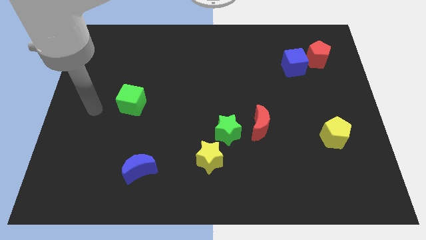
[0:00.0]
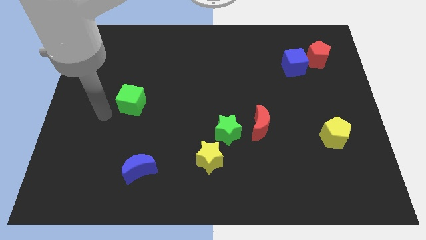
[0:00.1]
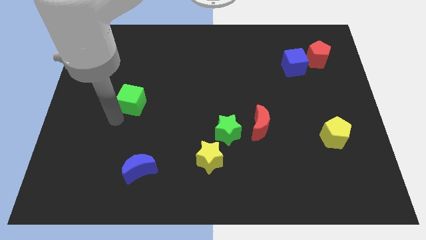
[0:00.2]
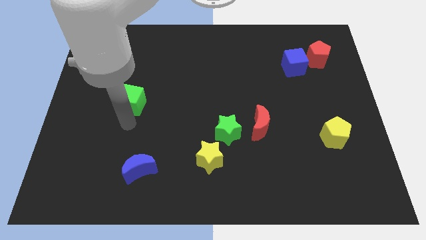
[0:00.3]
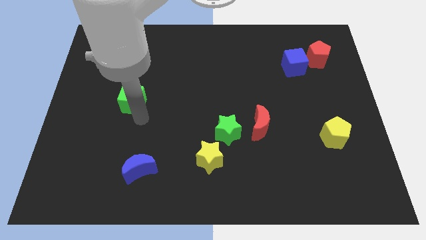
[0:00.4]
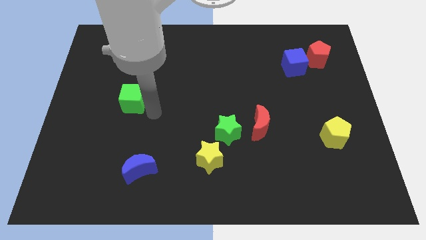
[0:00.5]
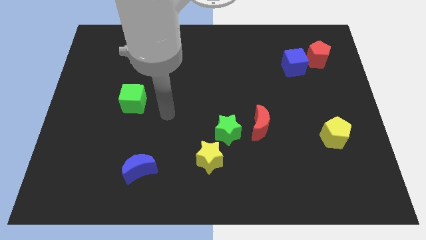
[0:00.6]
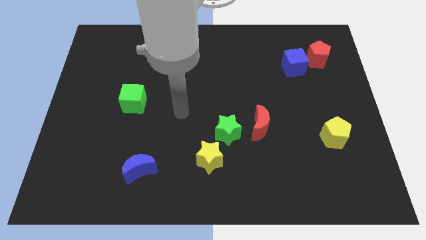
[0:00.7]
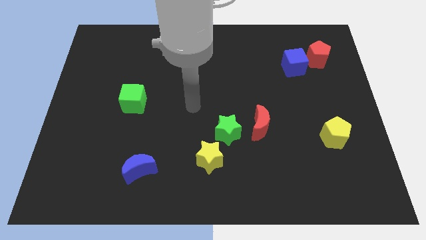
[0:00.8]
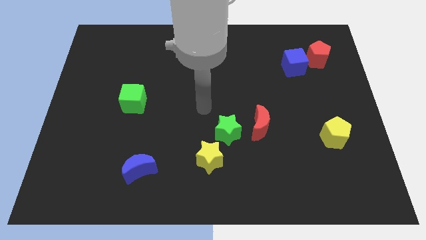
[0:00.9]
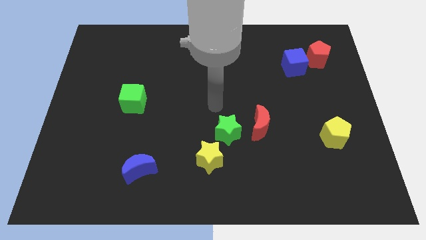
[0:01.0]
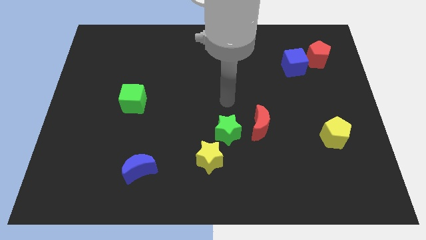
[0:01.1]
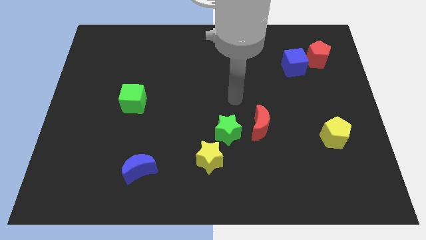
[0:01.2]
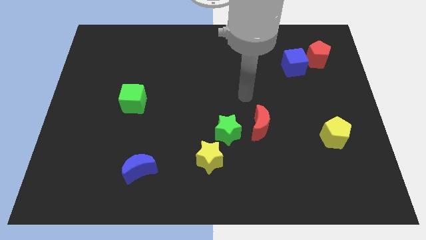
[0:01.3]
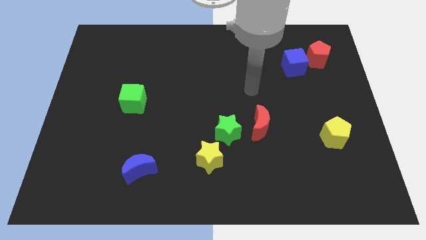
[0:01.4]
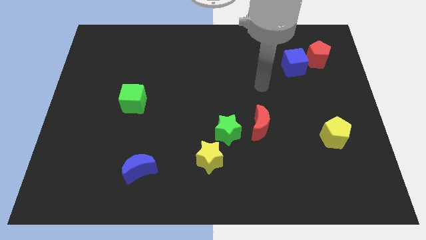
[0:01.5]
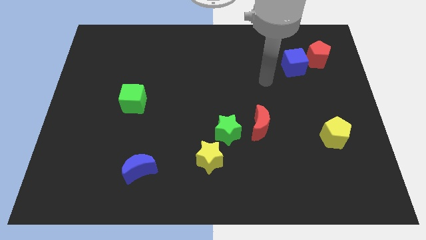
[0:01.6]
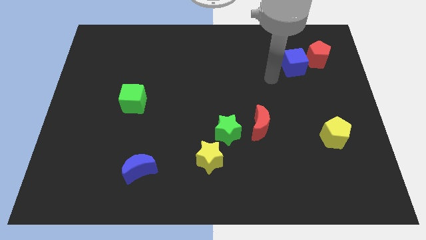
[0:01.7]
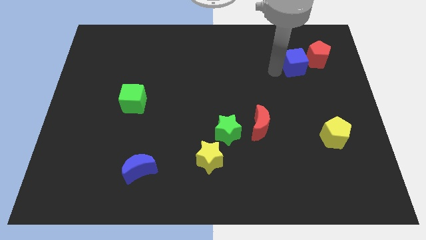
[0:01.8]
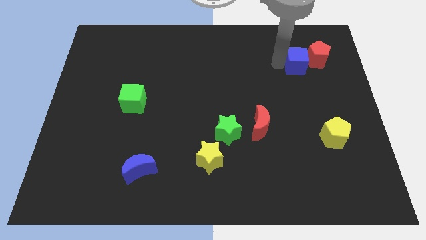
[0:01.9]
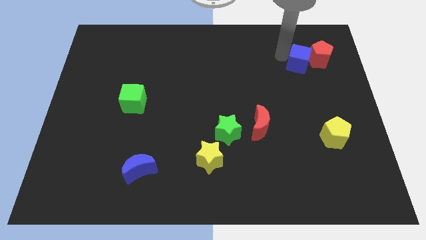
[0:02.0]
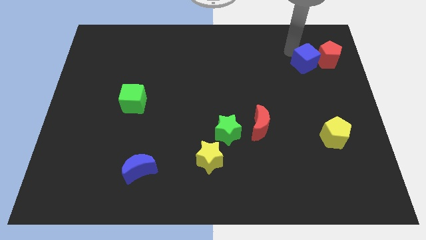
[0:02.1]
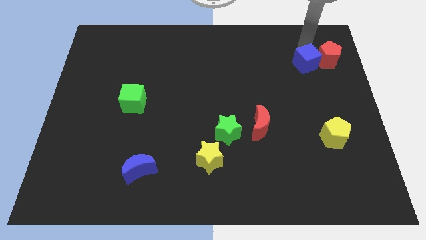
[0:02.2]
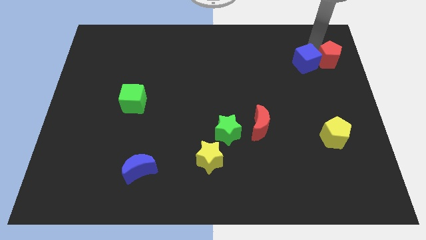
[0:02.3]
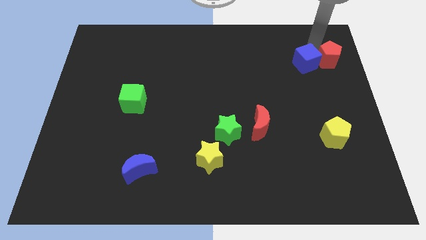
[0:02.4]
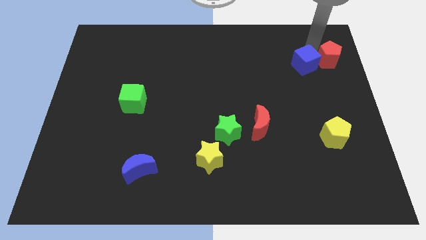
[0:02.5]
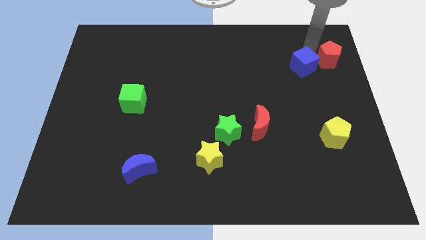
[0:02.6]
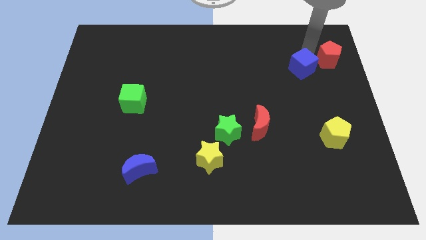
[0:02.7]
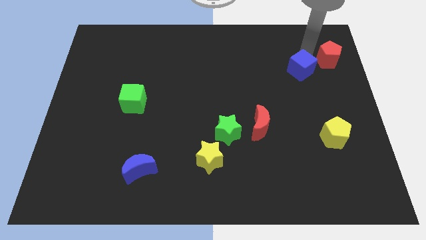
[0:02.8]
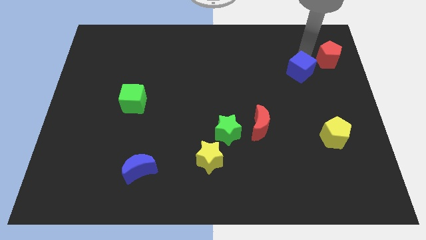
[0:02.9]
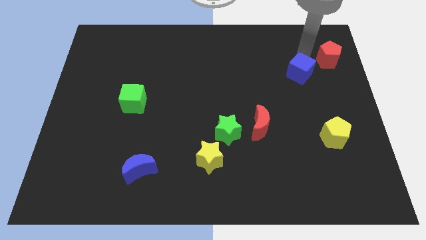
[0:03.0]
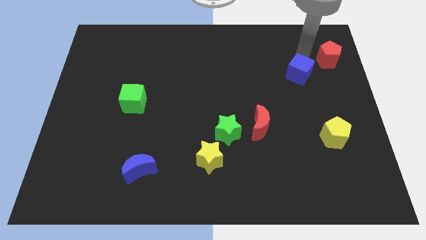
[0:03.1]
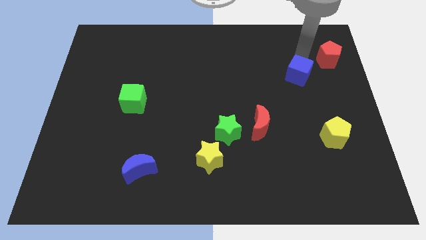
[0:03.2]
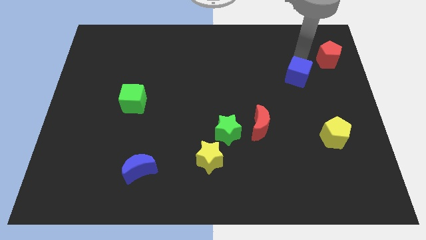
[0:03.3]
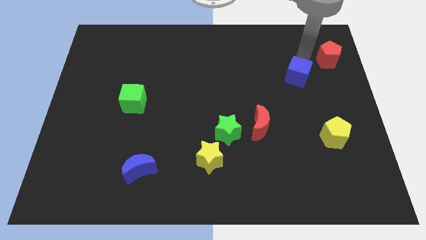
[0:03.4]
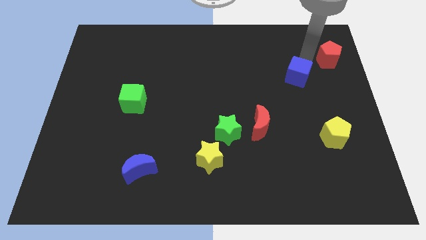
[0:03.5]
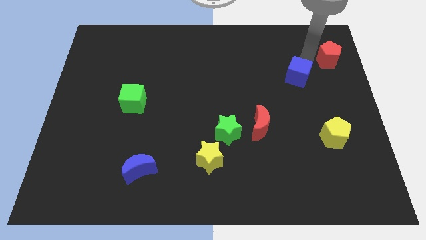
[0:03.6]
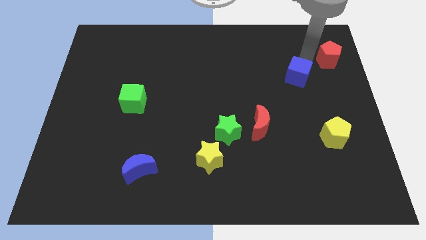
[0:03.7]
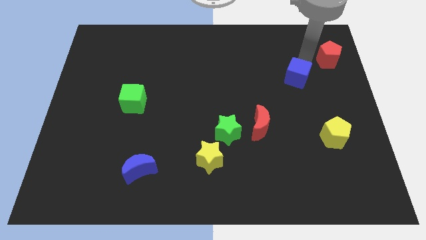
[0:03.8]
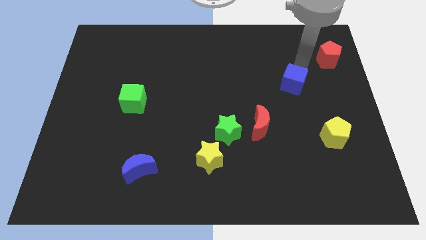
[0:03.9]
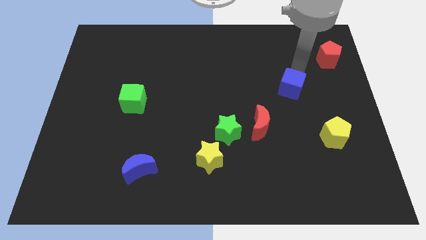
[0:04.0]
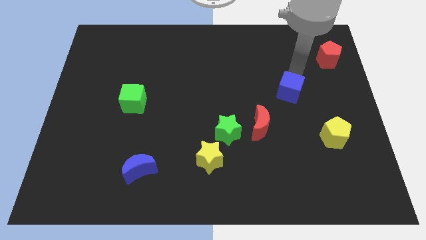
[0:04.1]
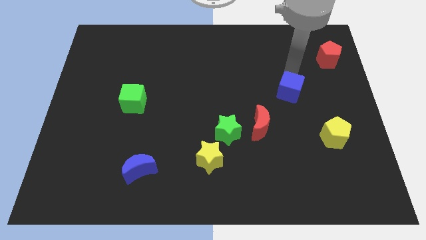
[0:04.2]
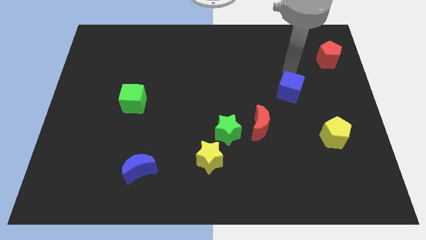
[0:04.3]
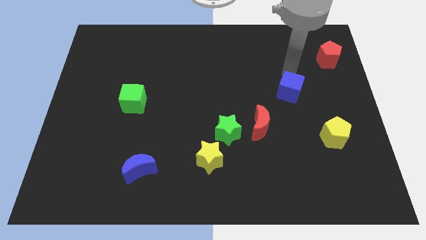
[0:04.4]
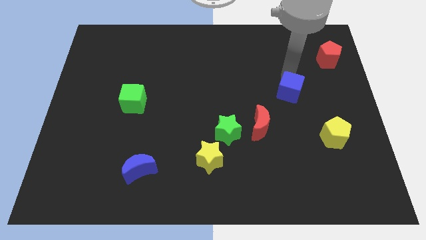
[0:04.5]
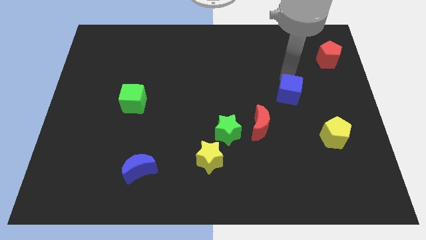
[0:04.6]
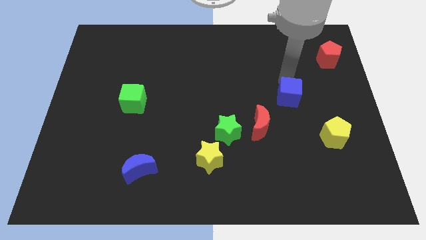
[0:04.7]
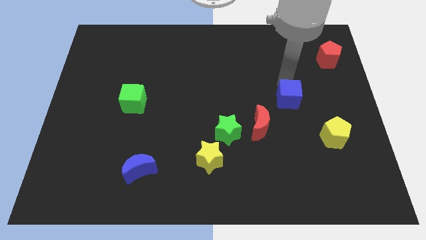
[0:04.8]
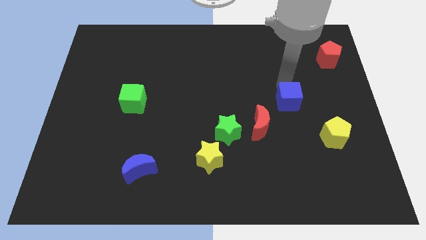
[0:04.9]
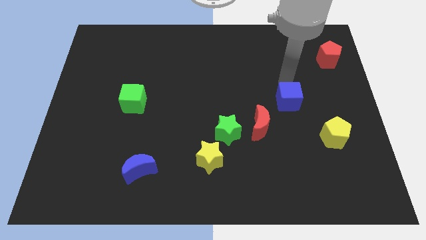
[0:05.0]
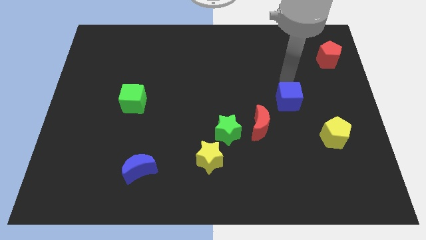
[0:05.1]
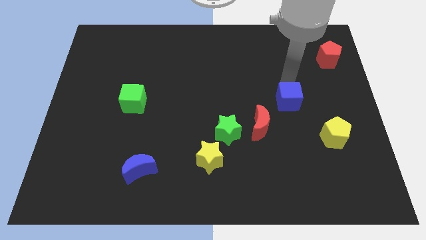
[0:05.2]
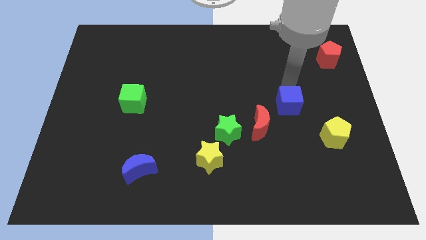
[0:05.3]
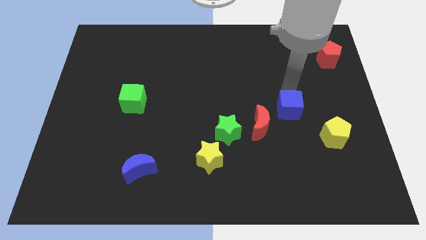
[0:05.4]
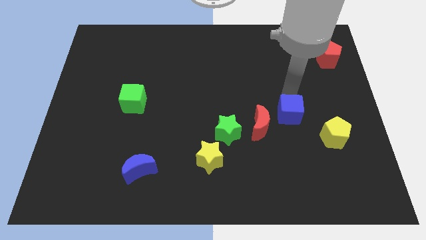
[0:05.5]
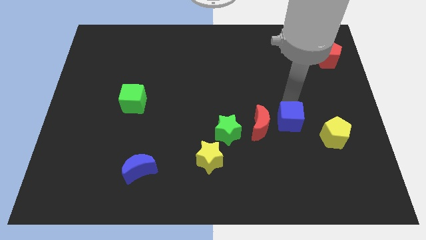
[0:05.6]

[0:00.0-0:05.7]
put the blue cube to the left of the yellow pentagon

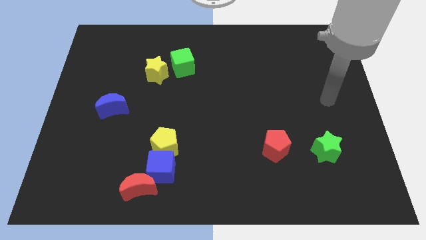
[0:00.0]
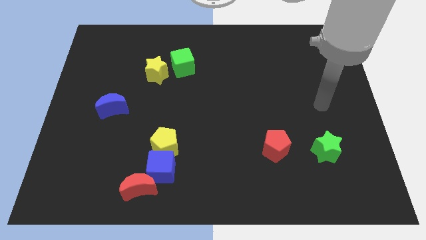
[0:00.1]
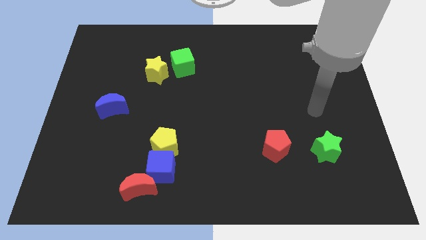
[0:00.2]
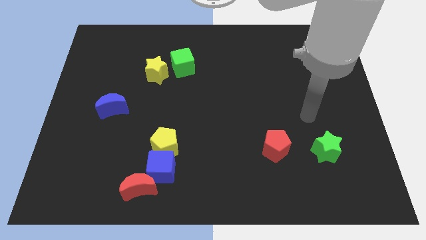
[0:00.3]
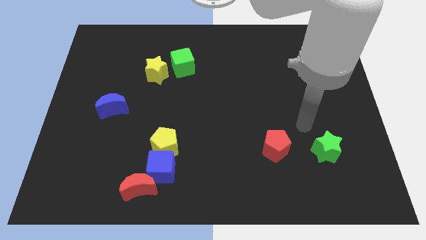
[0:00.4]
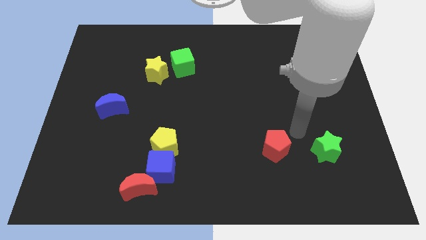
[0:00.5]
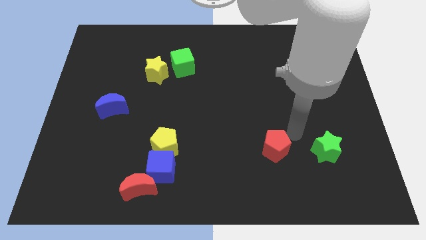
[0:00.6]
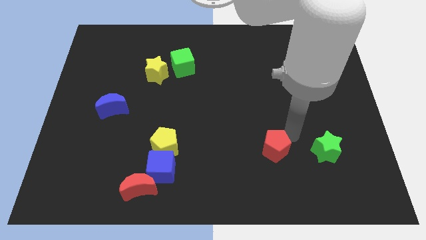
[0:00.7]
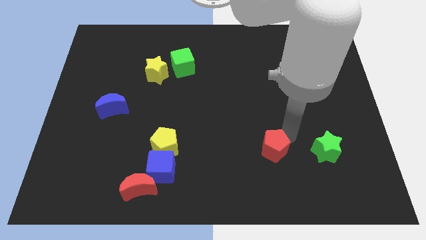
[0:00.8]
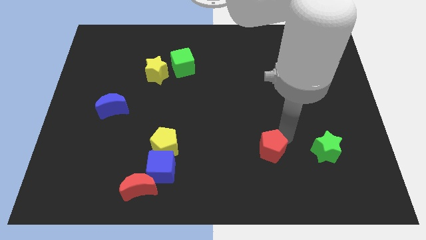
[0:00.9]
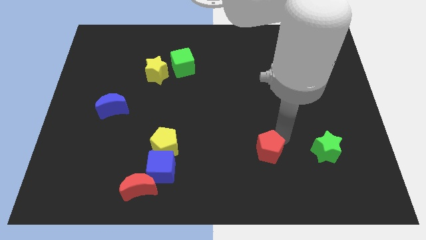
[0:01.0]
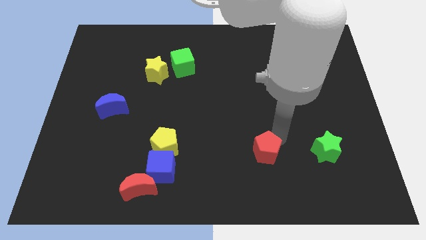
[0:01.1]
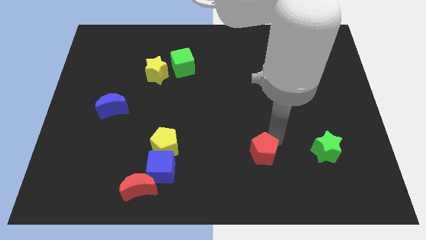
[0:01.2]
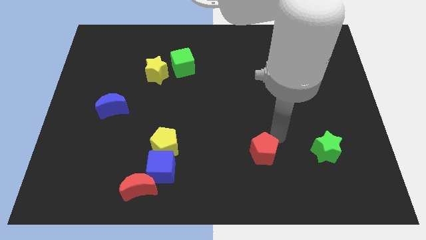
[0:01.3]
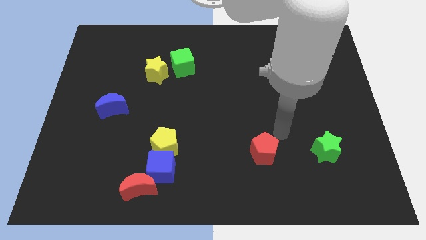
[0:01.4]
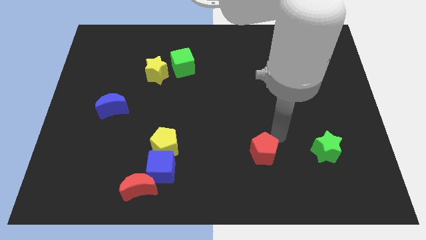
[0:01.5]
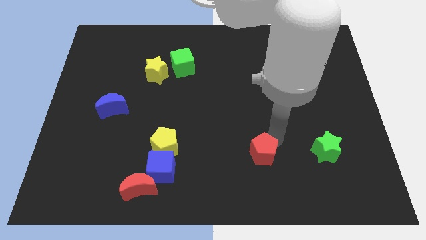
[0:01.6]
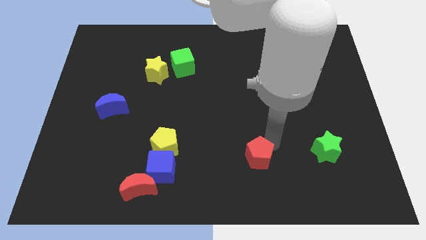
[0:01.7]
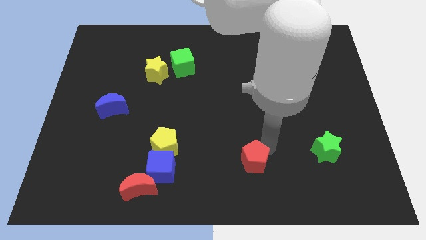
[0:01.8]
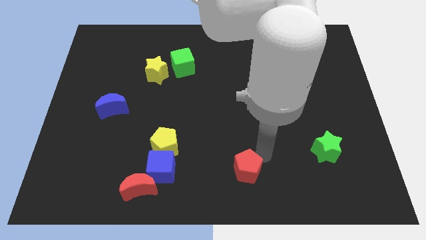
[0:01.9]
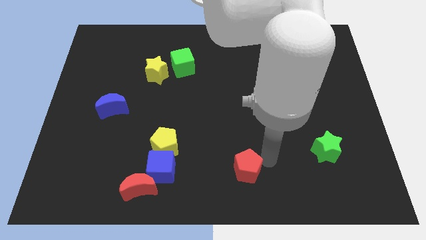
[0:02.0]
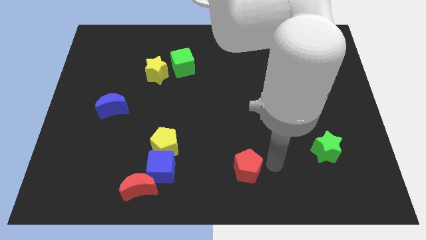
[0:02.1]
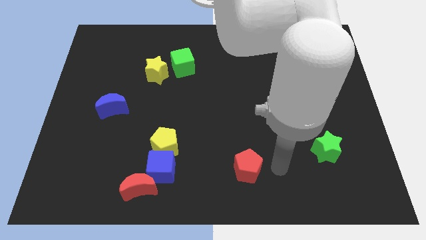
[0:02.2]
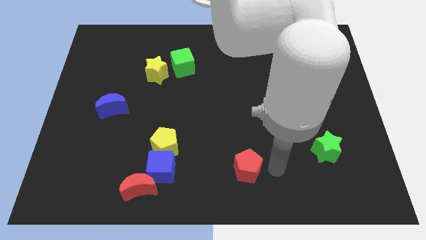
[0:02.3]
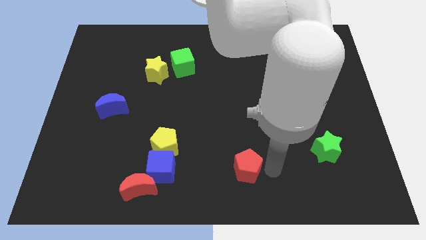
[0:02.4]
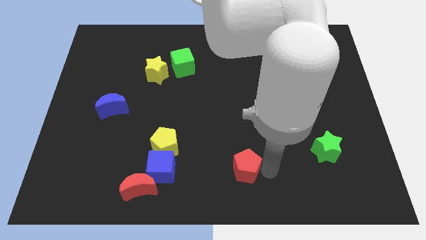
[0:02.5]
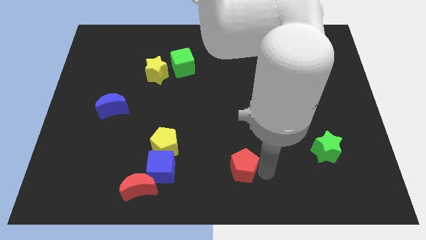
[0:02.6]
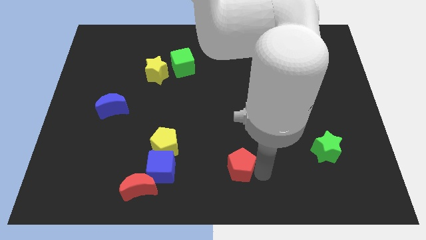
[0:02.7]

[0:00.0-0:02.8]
put the red pentagon right of the blue cube
